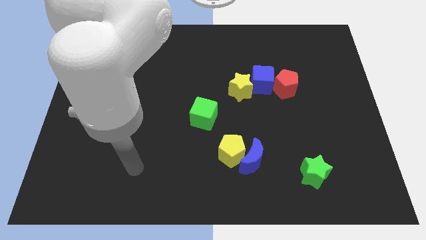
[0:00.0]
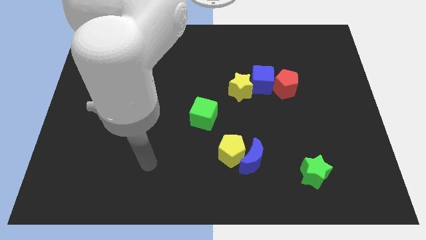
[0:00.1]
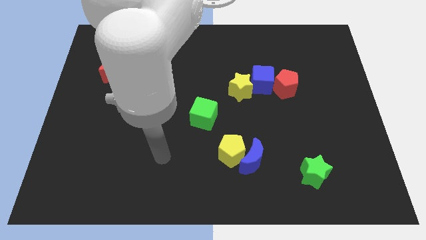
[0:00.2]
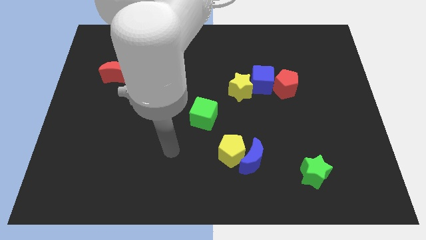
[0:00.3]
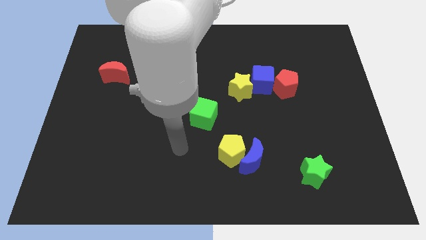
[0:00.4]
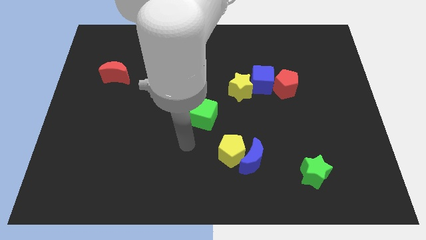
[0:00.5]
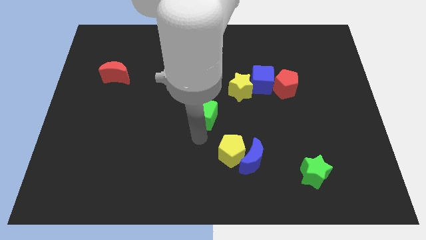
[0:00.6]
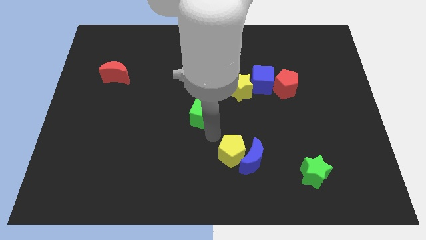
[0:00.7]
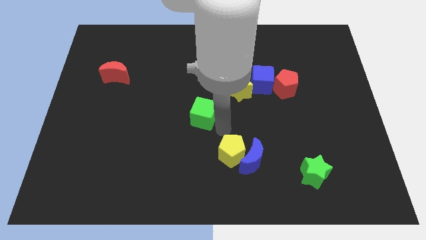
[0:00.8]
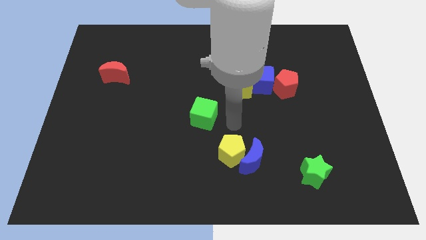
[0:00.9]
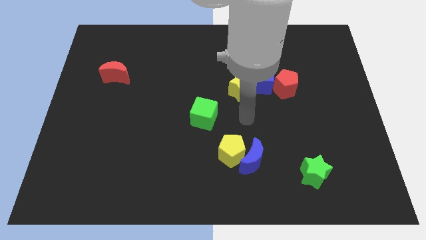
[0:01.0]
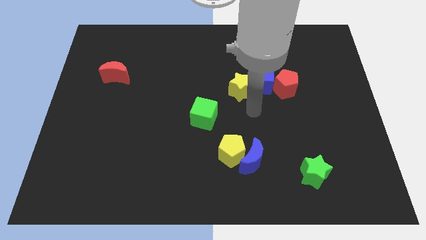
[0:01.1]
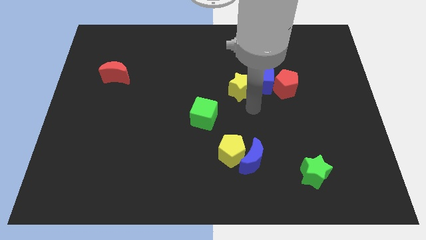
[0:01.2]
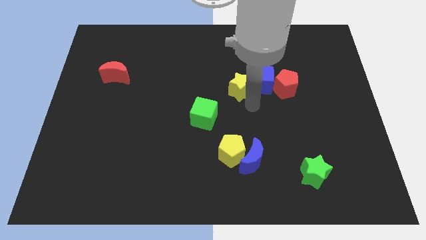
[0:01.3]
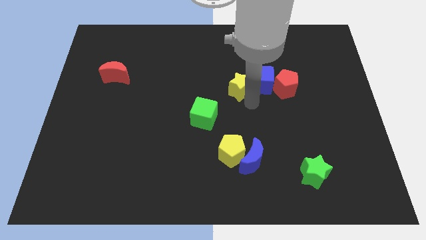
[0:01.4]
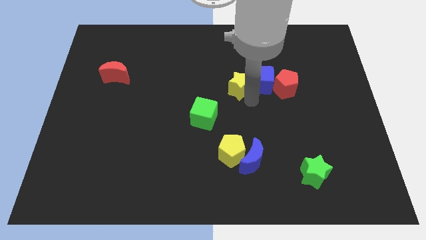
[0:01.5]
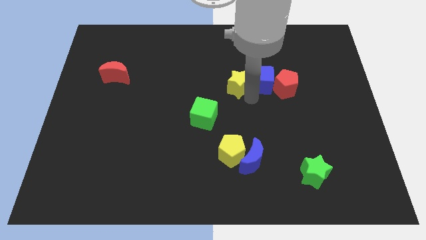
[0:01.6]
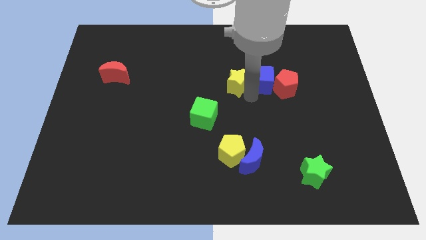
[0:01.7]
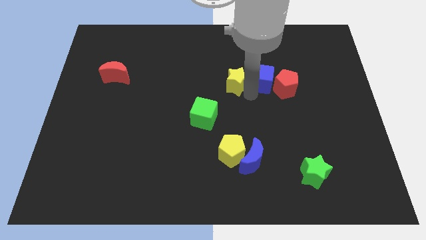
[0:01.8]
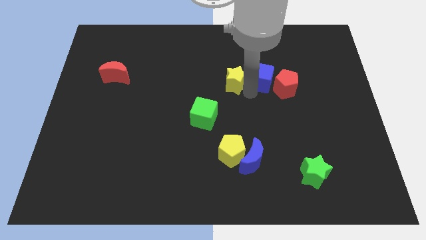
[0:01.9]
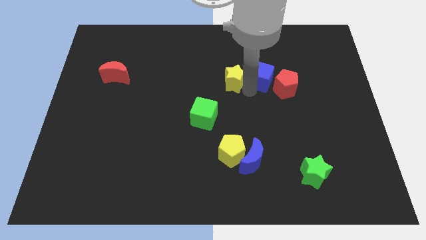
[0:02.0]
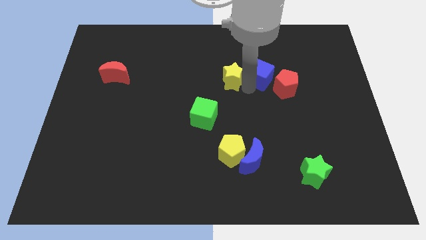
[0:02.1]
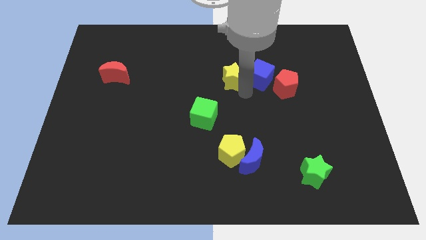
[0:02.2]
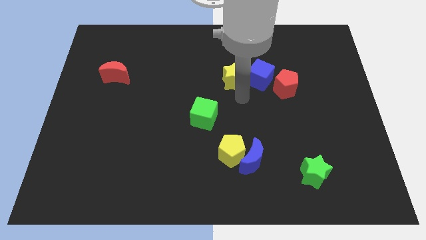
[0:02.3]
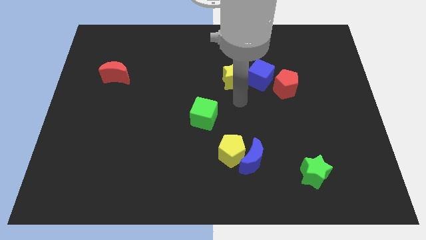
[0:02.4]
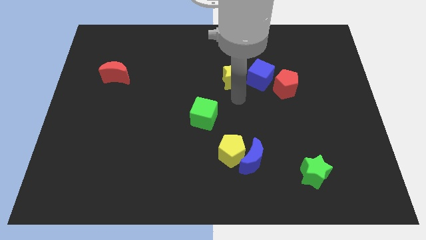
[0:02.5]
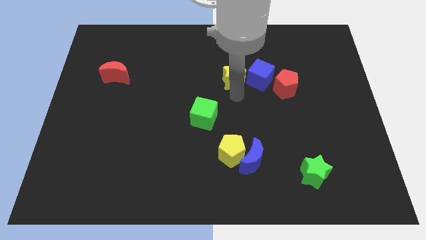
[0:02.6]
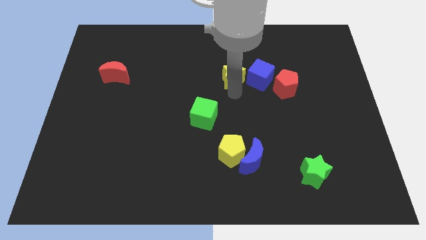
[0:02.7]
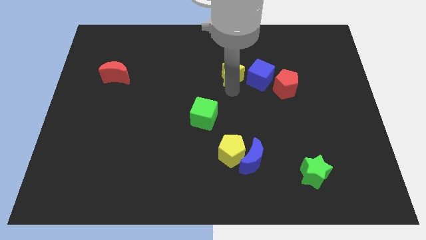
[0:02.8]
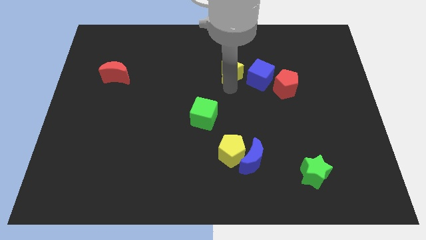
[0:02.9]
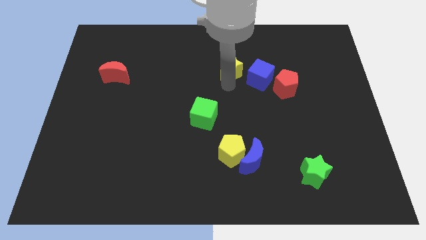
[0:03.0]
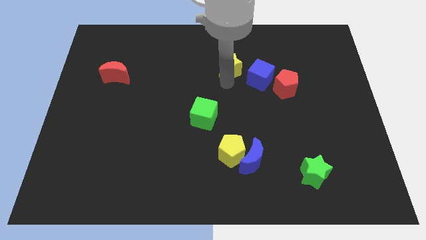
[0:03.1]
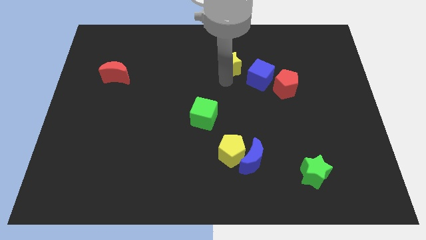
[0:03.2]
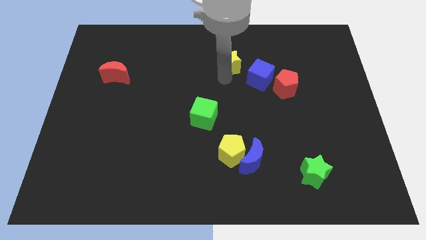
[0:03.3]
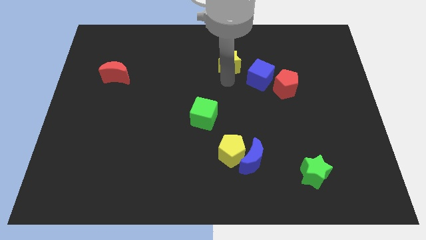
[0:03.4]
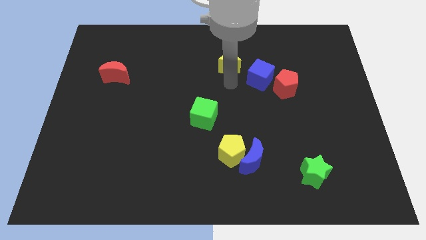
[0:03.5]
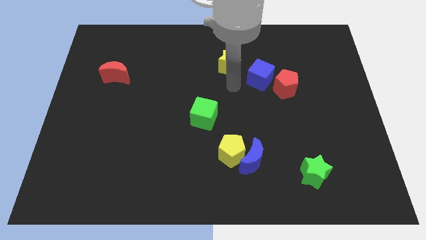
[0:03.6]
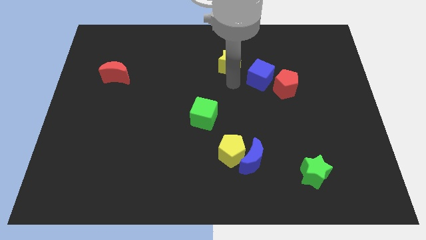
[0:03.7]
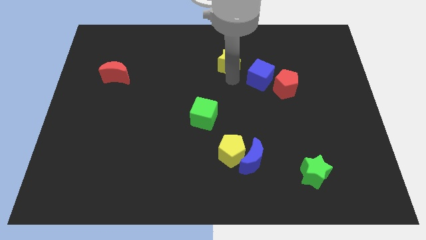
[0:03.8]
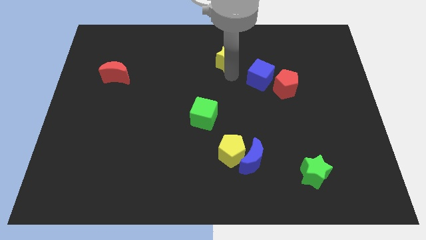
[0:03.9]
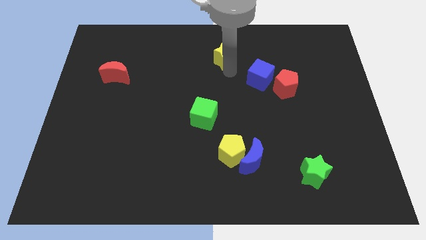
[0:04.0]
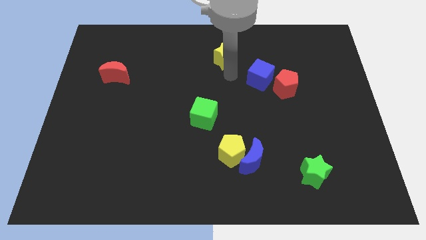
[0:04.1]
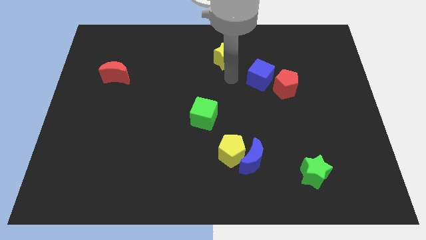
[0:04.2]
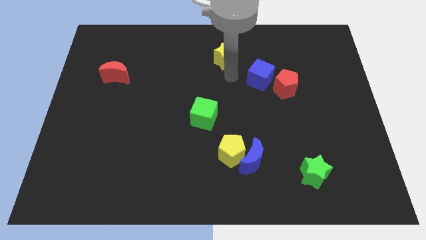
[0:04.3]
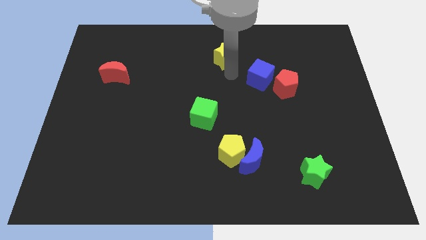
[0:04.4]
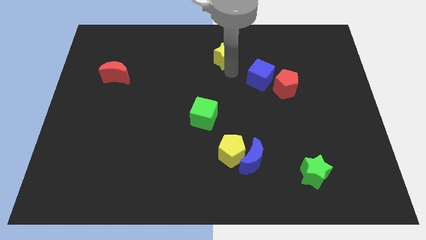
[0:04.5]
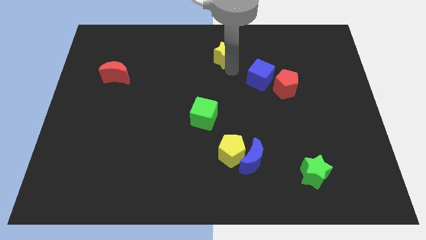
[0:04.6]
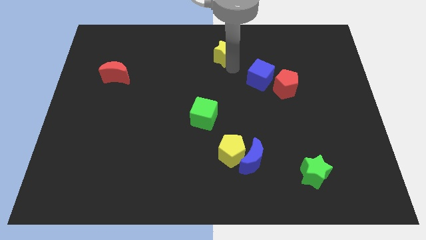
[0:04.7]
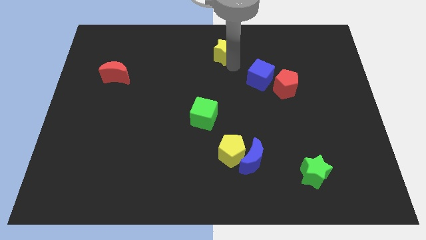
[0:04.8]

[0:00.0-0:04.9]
slide the yellow star to the top side

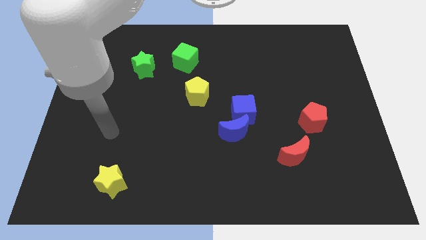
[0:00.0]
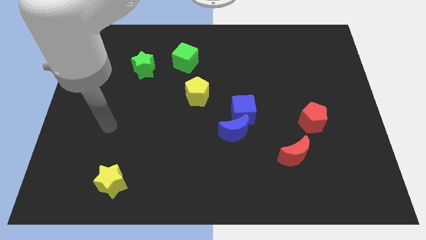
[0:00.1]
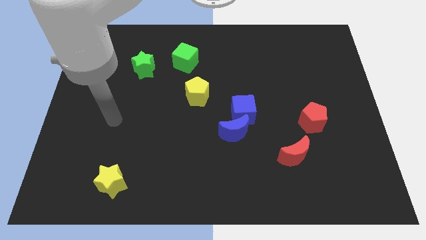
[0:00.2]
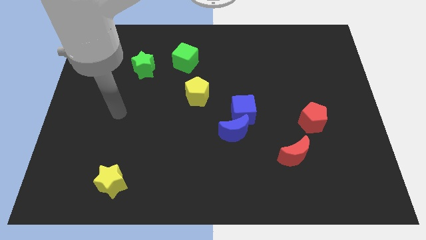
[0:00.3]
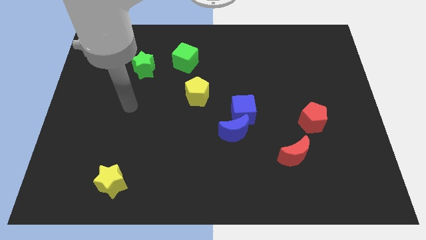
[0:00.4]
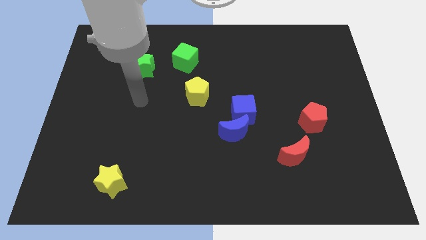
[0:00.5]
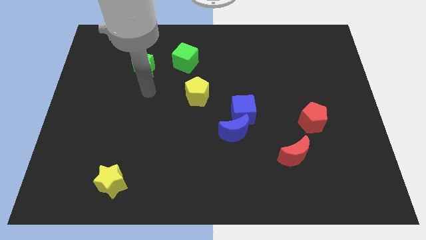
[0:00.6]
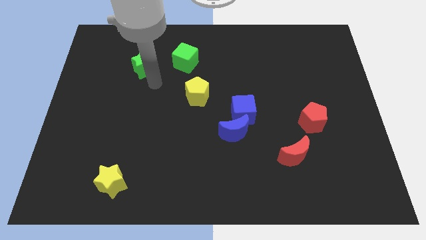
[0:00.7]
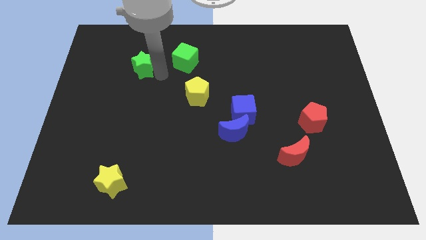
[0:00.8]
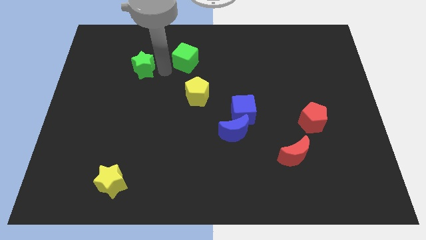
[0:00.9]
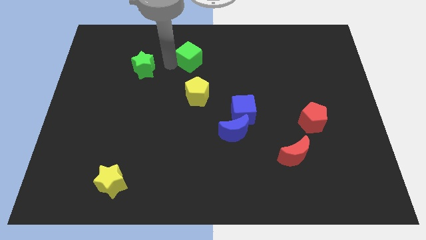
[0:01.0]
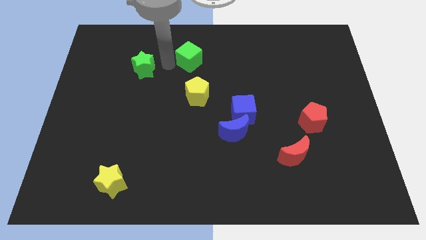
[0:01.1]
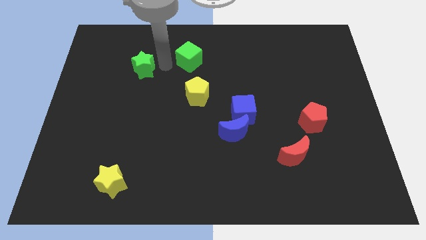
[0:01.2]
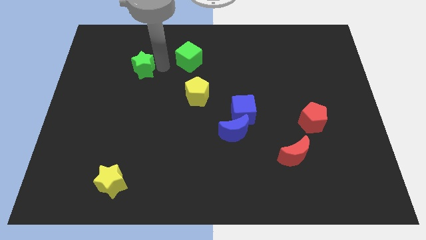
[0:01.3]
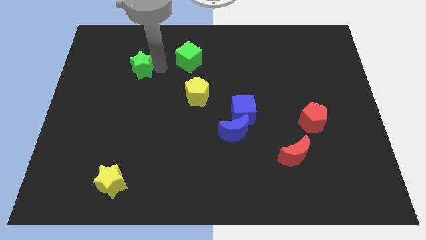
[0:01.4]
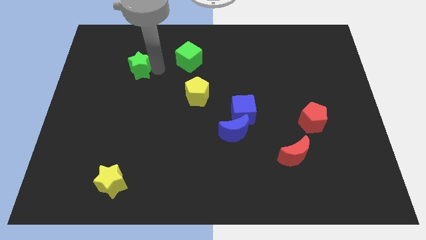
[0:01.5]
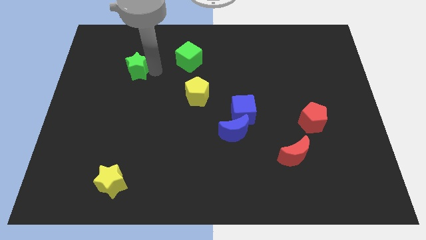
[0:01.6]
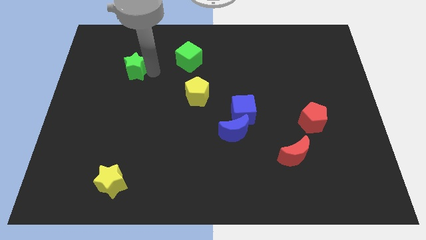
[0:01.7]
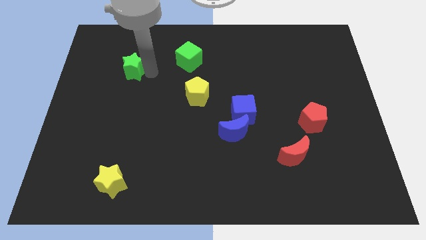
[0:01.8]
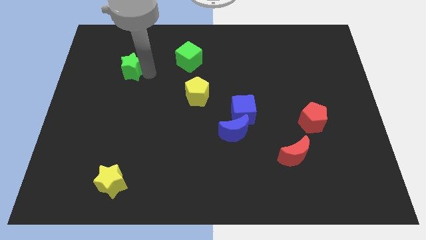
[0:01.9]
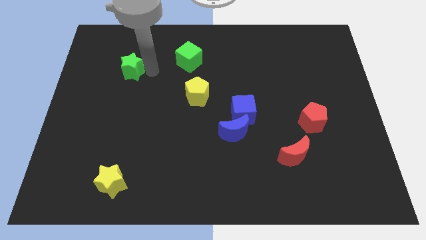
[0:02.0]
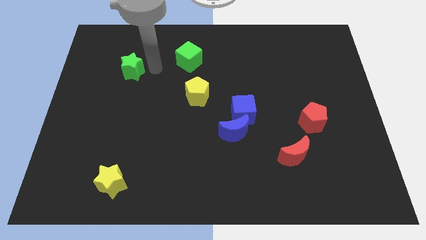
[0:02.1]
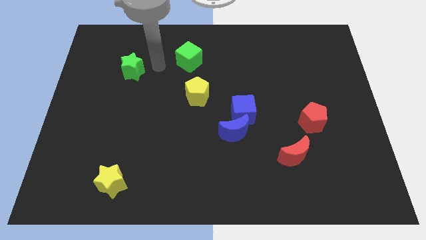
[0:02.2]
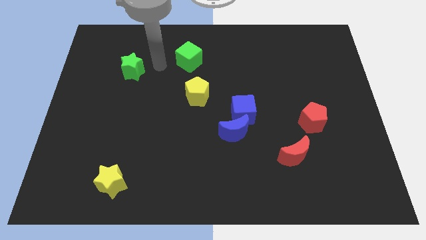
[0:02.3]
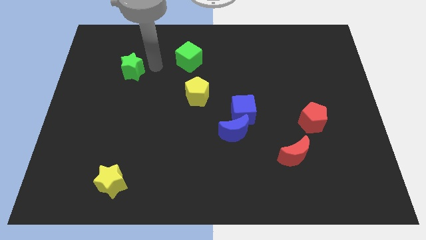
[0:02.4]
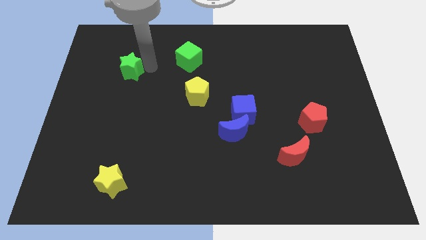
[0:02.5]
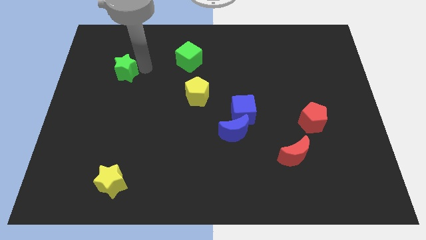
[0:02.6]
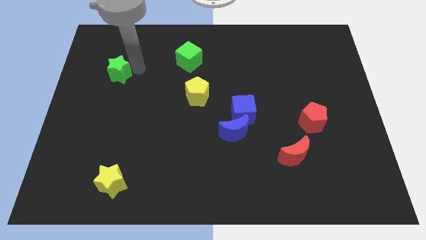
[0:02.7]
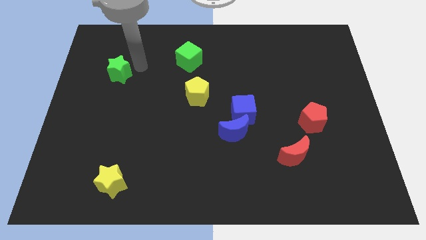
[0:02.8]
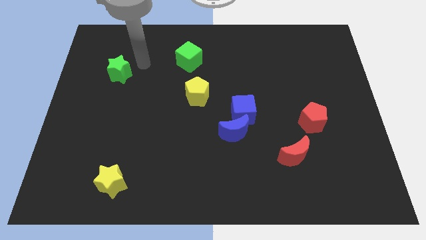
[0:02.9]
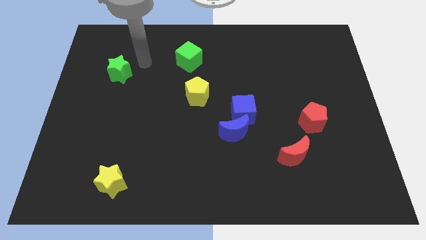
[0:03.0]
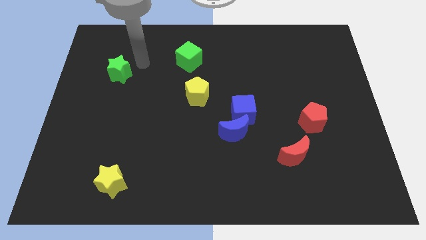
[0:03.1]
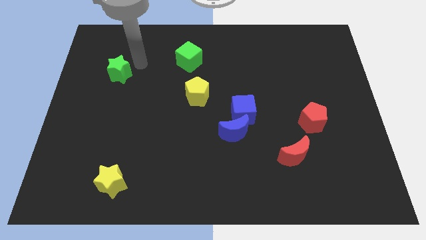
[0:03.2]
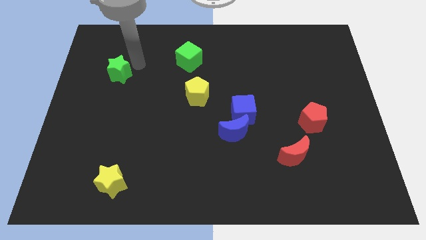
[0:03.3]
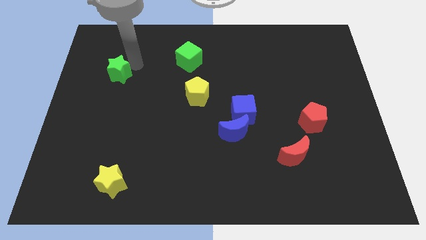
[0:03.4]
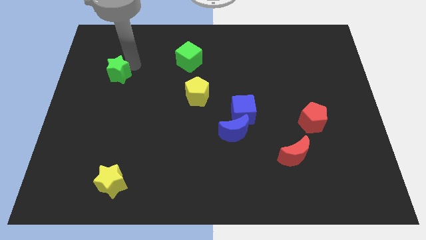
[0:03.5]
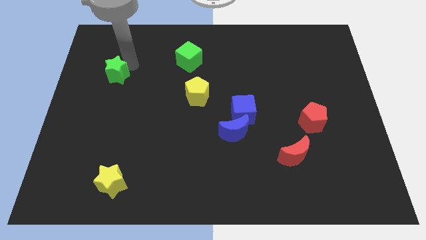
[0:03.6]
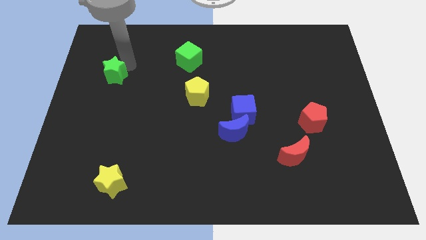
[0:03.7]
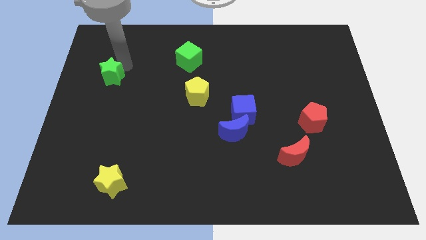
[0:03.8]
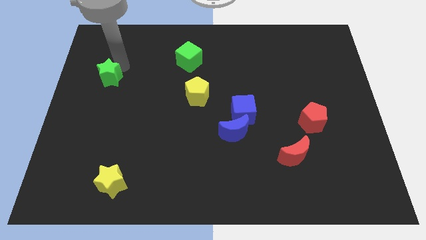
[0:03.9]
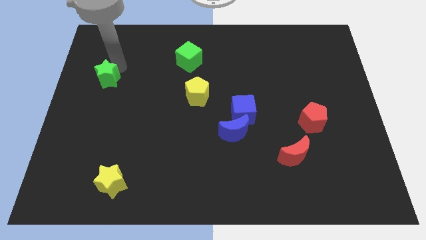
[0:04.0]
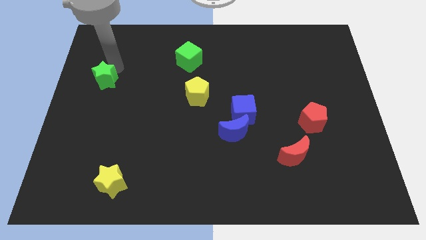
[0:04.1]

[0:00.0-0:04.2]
push the green star to the left side
